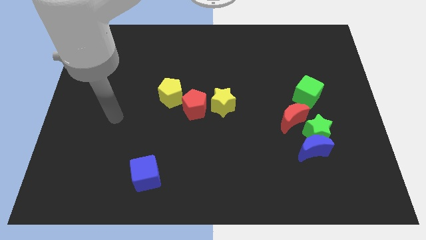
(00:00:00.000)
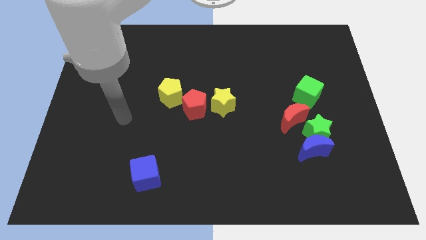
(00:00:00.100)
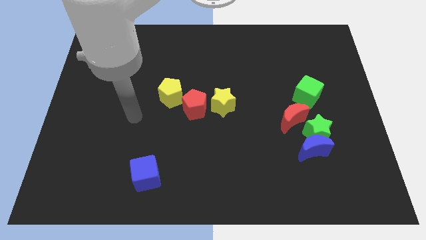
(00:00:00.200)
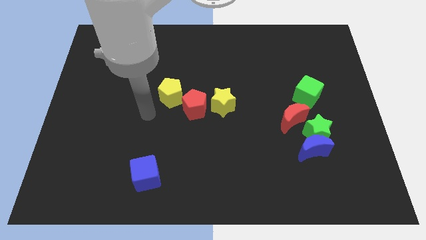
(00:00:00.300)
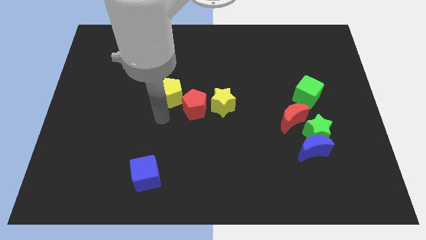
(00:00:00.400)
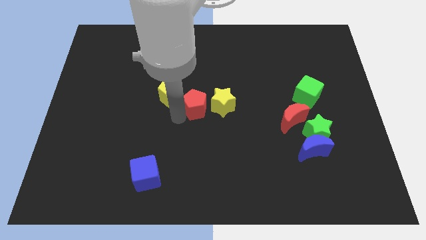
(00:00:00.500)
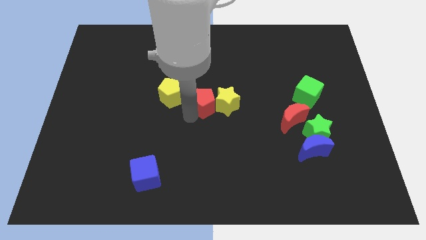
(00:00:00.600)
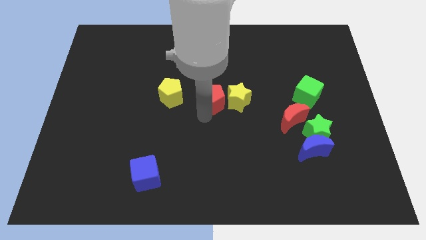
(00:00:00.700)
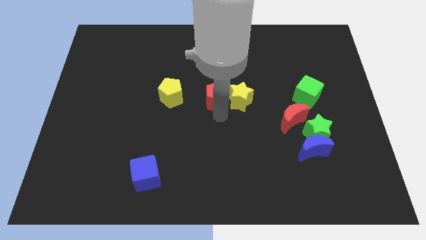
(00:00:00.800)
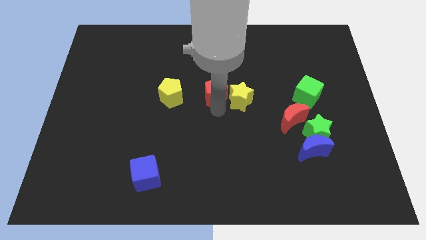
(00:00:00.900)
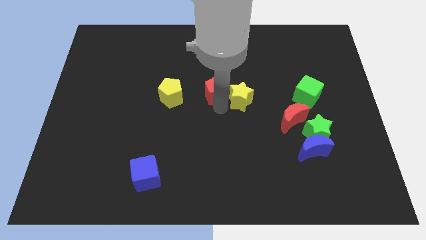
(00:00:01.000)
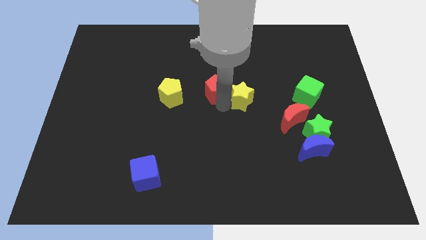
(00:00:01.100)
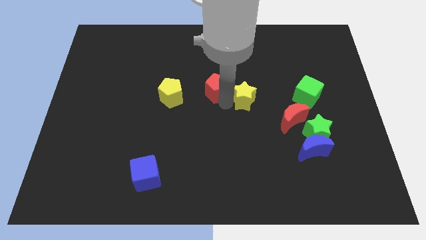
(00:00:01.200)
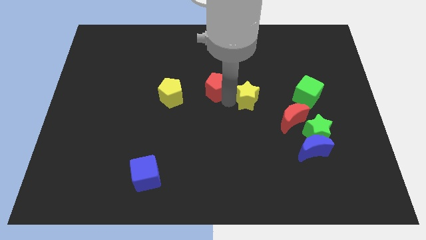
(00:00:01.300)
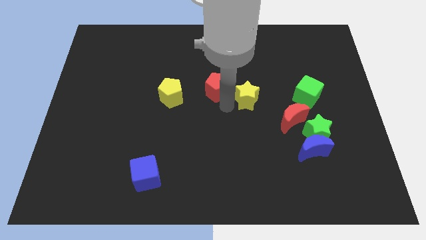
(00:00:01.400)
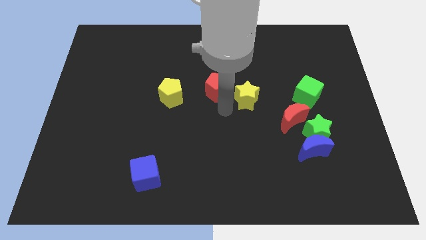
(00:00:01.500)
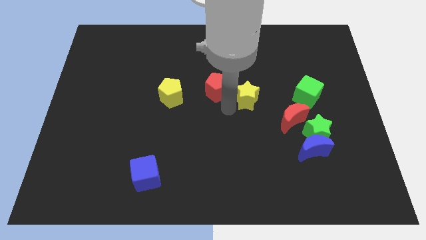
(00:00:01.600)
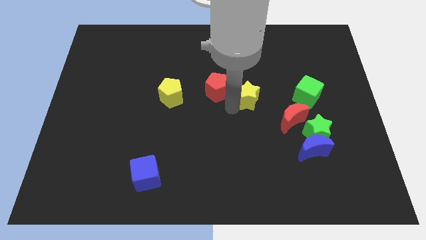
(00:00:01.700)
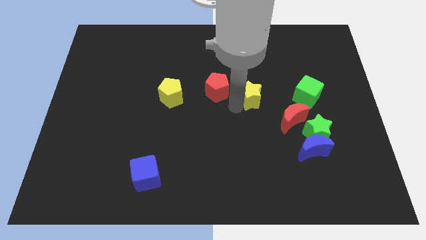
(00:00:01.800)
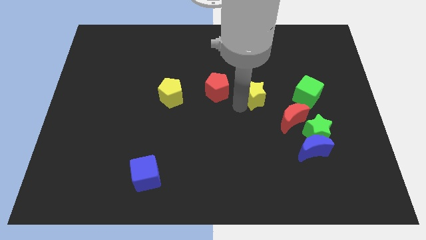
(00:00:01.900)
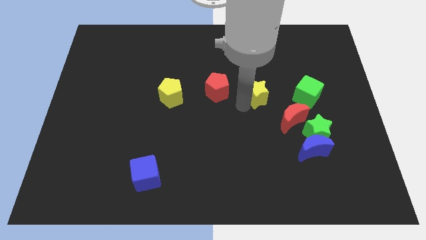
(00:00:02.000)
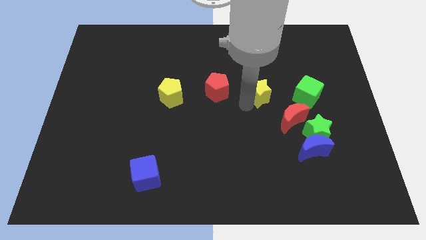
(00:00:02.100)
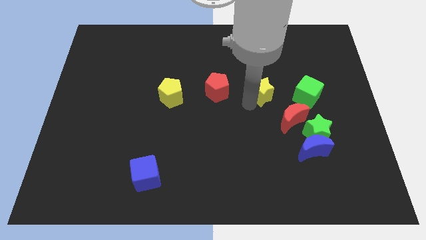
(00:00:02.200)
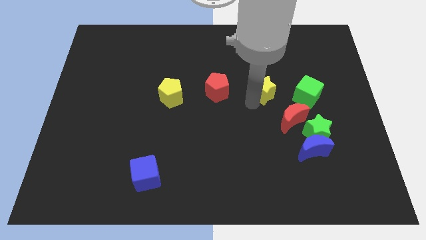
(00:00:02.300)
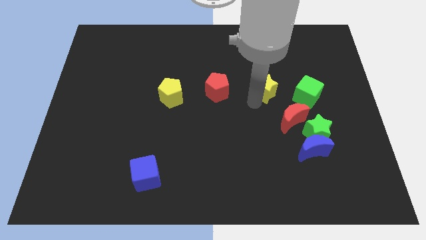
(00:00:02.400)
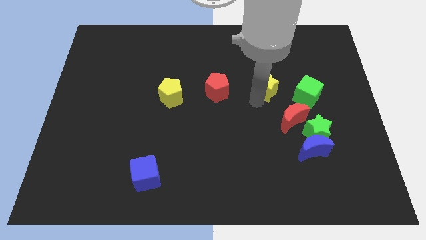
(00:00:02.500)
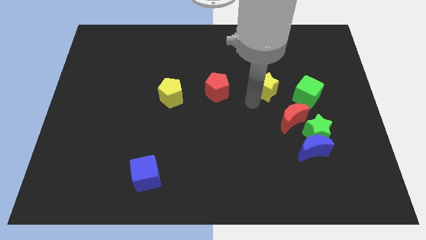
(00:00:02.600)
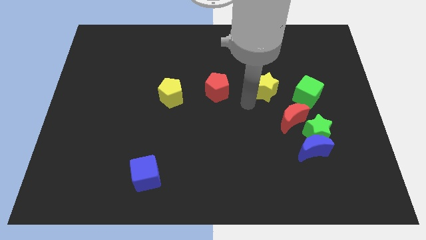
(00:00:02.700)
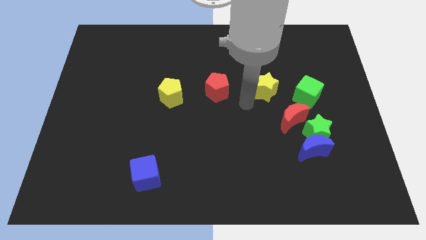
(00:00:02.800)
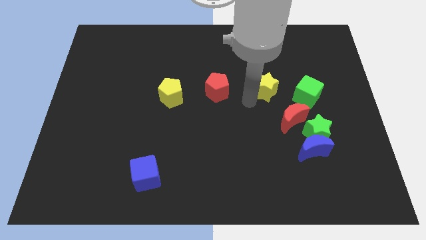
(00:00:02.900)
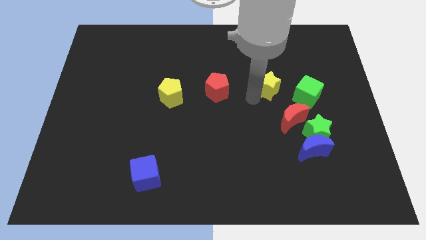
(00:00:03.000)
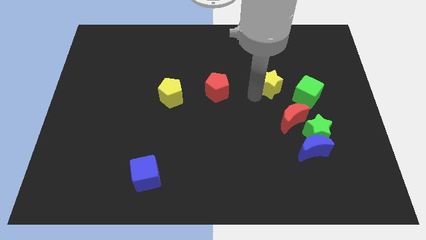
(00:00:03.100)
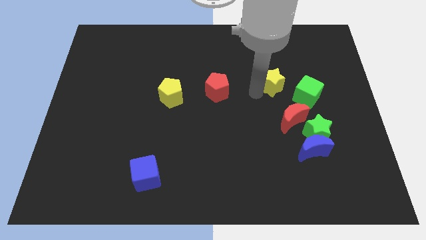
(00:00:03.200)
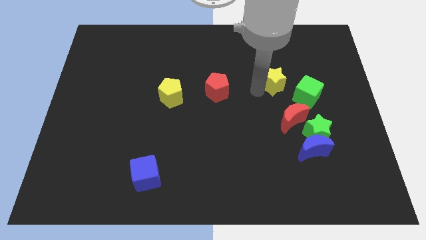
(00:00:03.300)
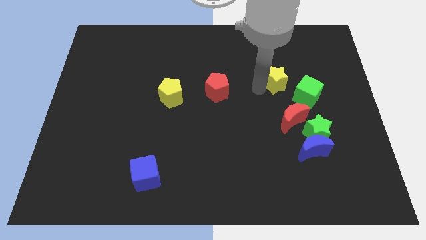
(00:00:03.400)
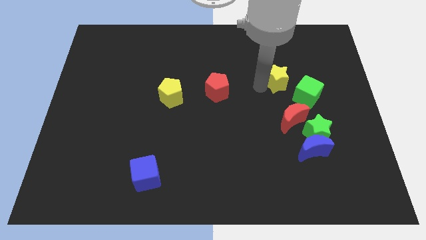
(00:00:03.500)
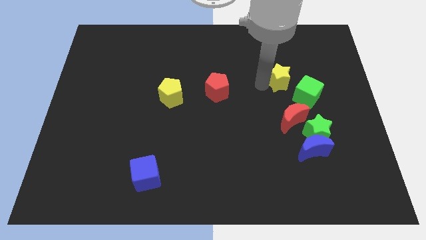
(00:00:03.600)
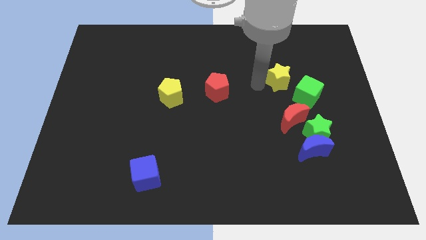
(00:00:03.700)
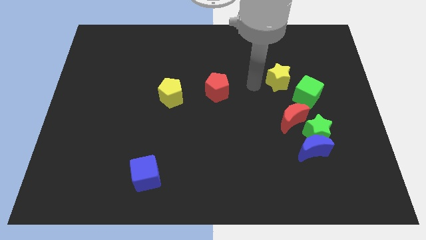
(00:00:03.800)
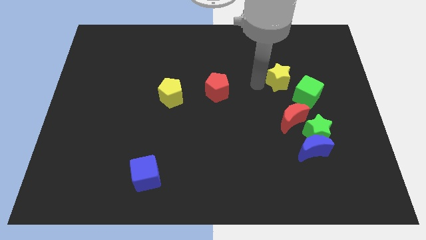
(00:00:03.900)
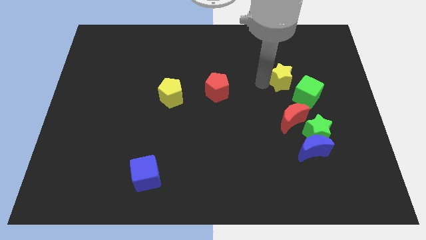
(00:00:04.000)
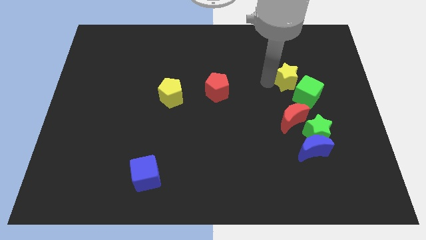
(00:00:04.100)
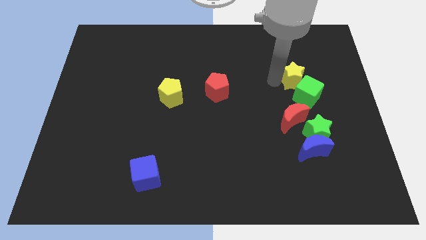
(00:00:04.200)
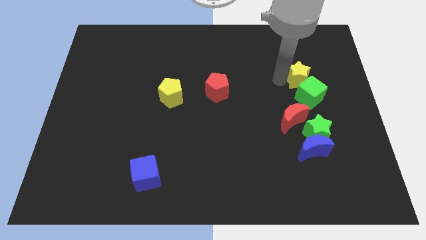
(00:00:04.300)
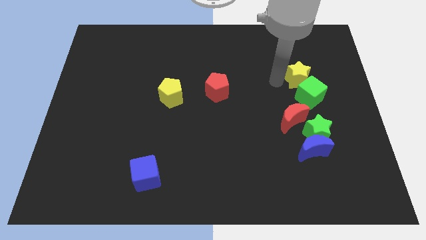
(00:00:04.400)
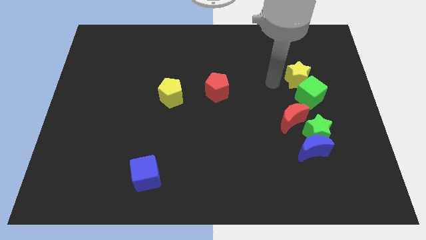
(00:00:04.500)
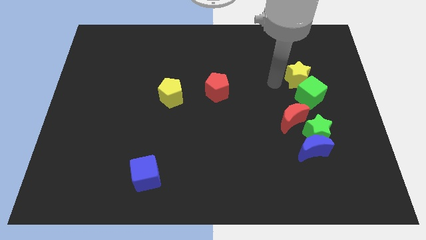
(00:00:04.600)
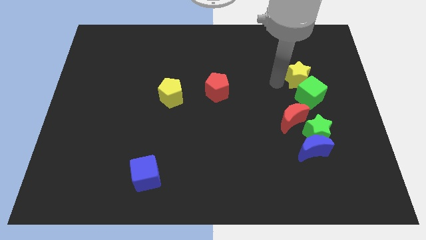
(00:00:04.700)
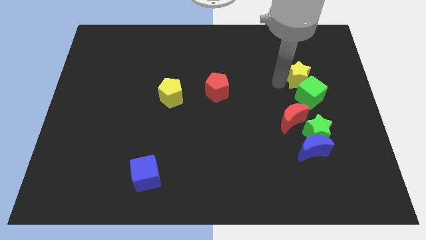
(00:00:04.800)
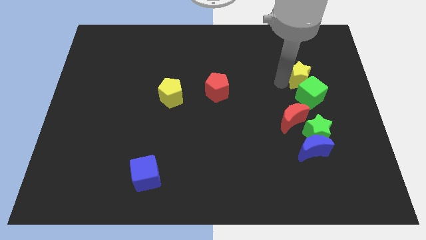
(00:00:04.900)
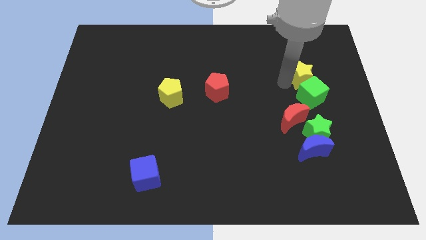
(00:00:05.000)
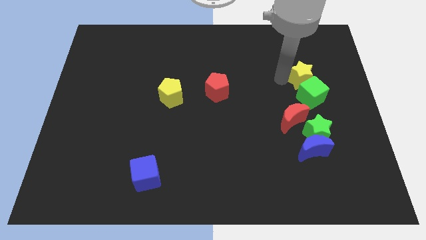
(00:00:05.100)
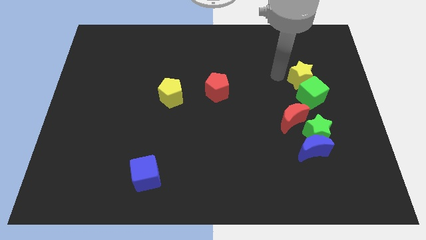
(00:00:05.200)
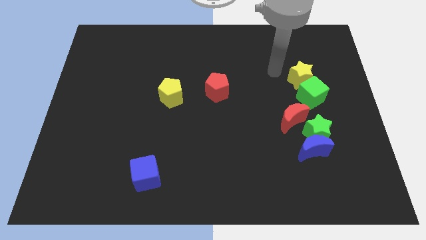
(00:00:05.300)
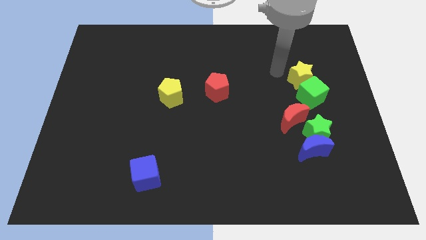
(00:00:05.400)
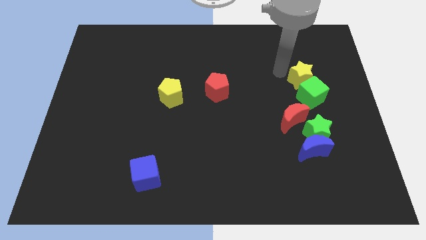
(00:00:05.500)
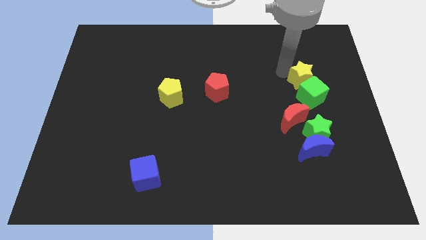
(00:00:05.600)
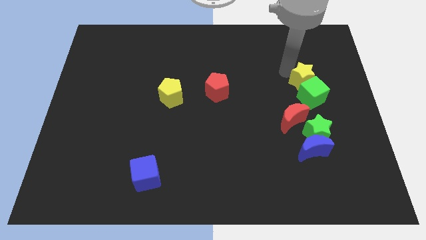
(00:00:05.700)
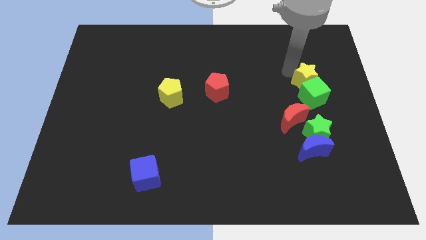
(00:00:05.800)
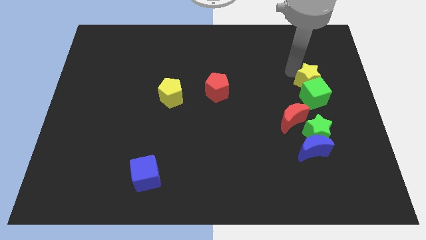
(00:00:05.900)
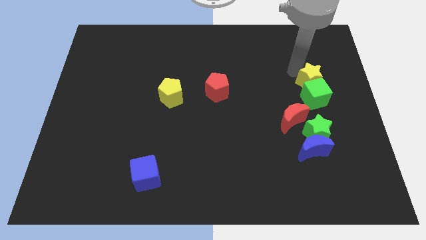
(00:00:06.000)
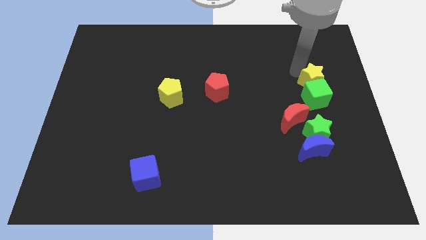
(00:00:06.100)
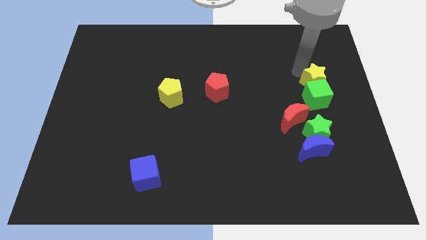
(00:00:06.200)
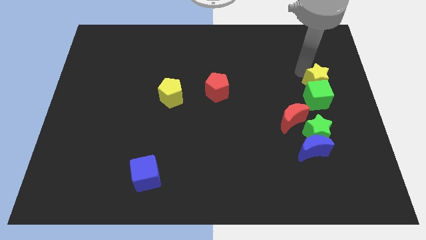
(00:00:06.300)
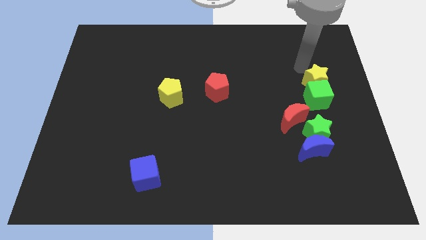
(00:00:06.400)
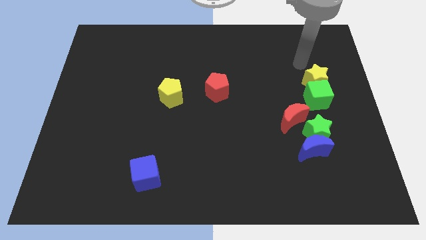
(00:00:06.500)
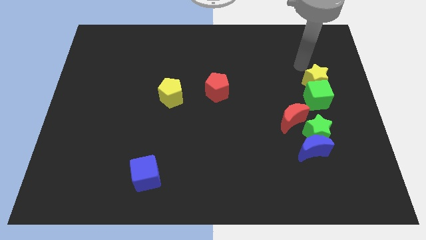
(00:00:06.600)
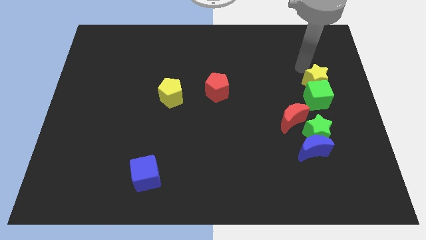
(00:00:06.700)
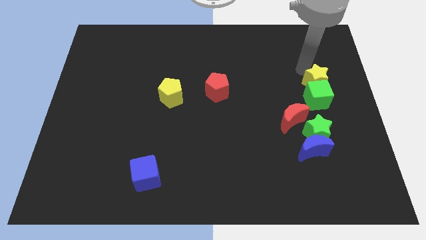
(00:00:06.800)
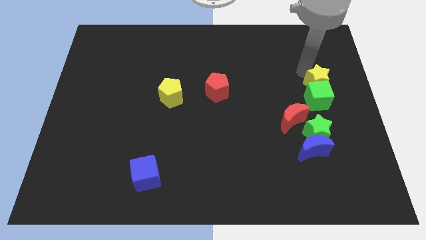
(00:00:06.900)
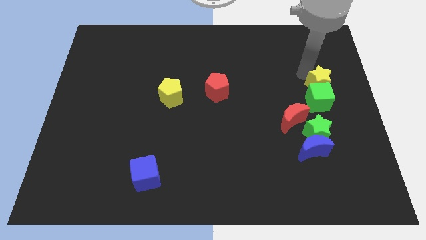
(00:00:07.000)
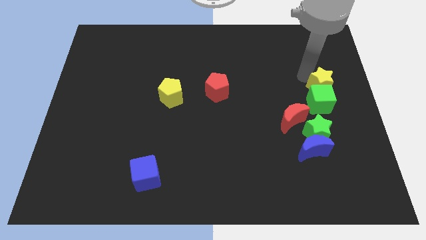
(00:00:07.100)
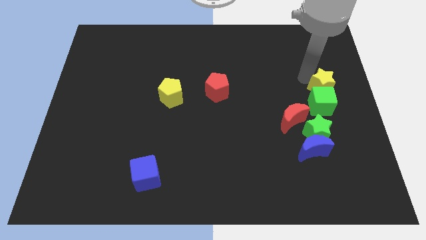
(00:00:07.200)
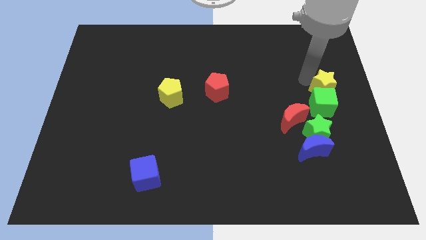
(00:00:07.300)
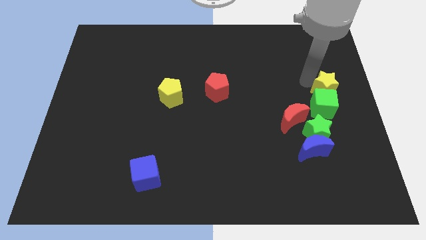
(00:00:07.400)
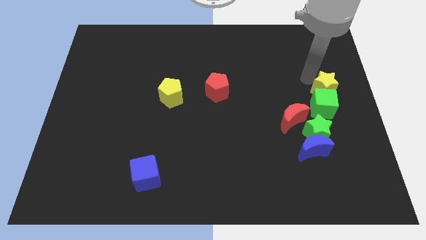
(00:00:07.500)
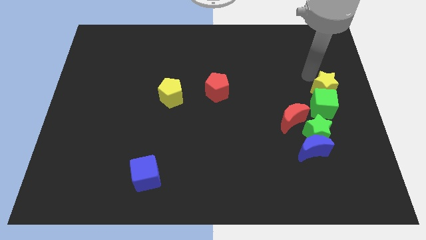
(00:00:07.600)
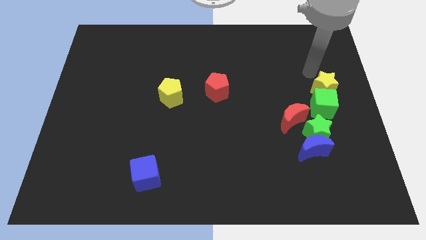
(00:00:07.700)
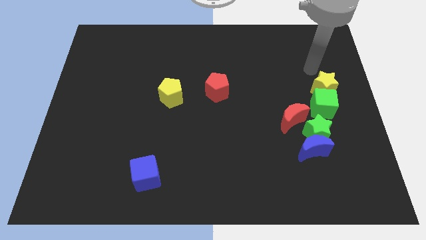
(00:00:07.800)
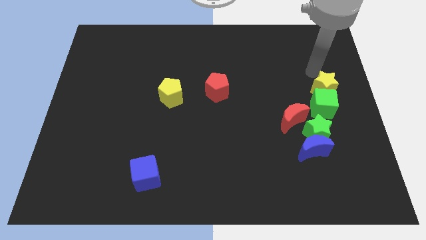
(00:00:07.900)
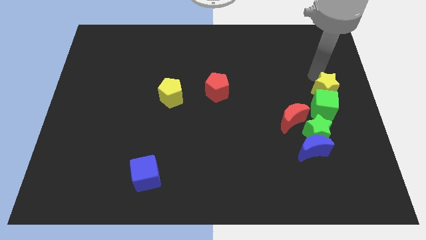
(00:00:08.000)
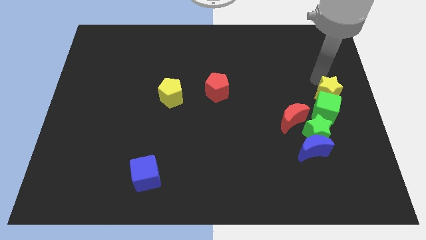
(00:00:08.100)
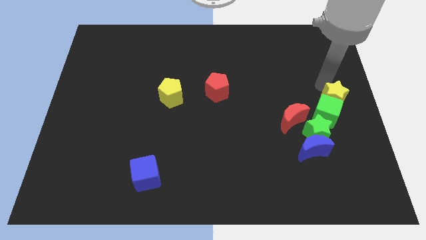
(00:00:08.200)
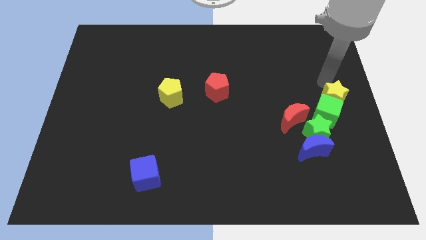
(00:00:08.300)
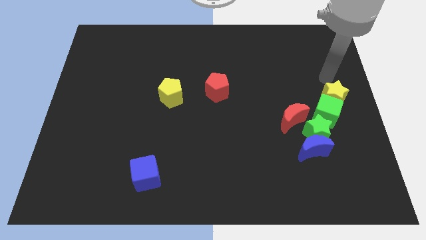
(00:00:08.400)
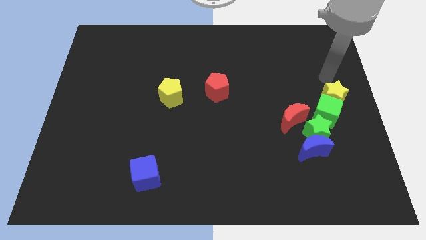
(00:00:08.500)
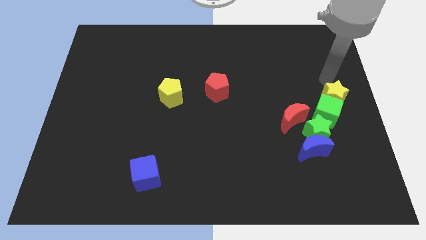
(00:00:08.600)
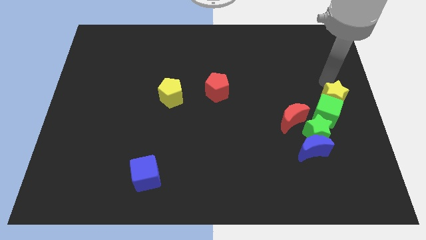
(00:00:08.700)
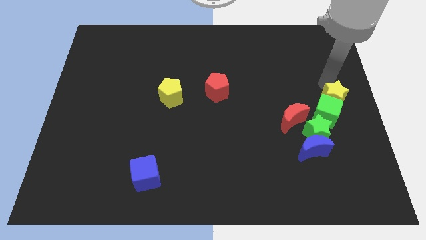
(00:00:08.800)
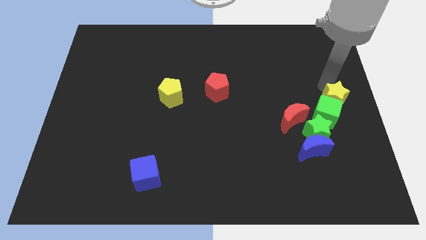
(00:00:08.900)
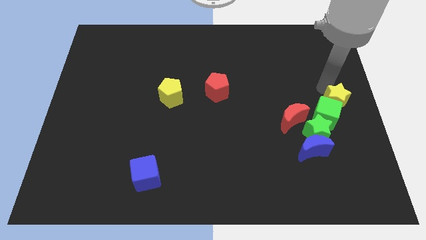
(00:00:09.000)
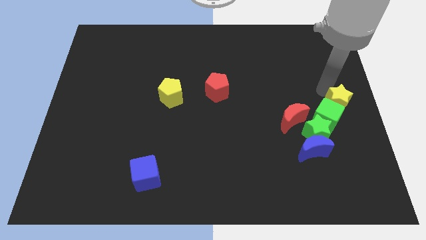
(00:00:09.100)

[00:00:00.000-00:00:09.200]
put the yellow star to the right of the red moon
